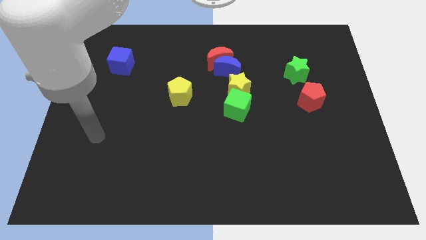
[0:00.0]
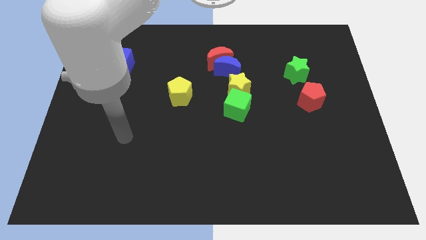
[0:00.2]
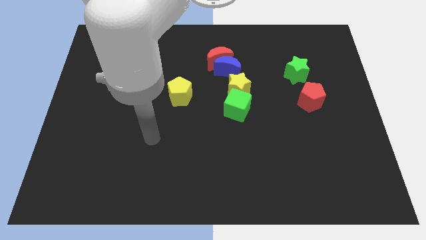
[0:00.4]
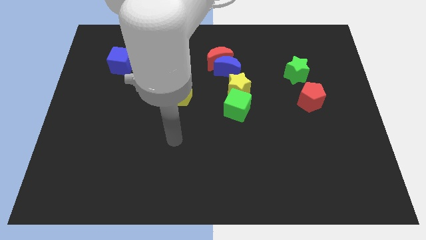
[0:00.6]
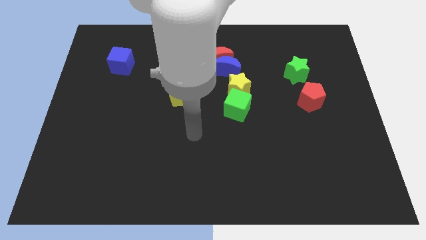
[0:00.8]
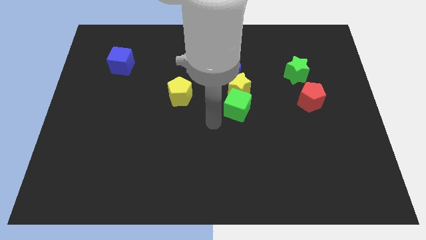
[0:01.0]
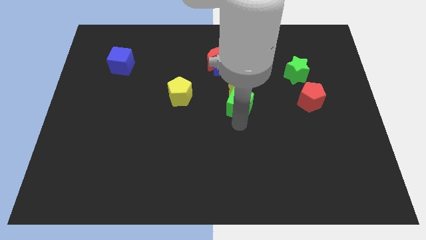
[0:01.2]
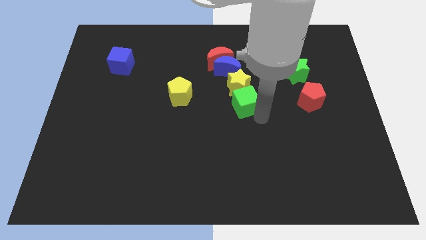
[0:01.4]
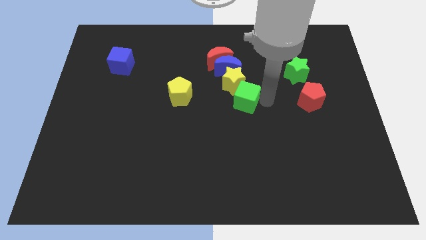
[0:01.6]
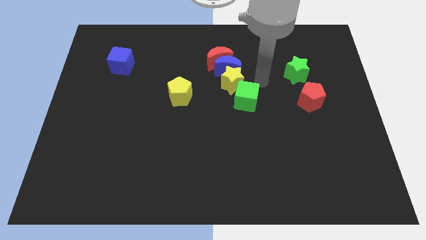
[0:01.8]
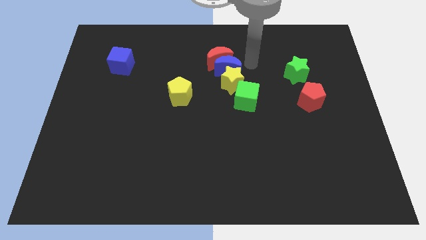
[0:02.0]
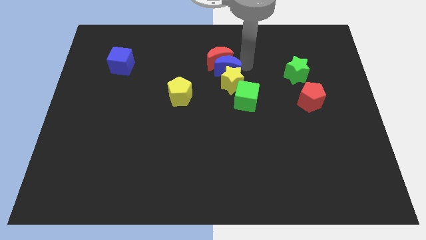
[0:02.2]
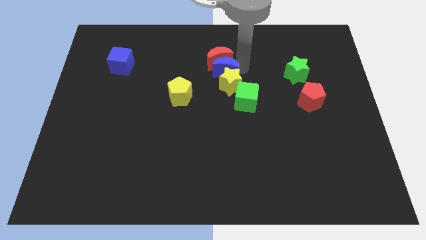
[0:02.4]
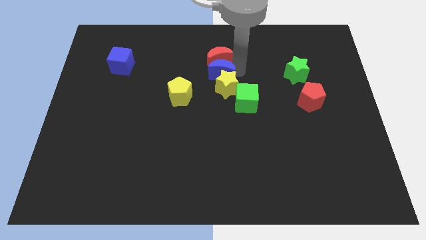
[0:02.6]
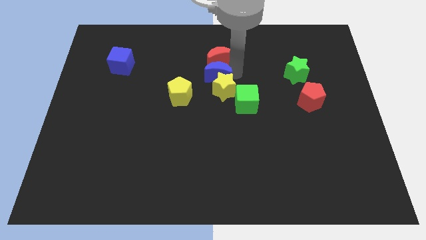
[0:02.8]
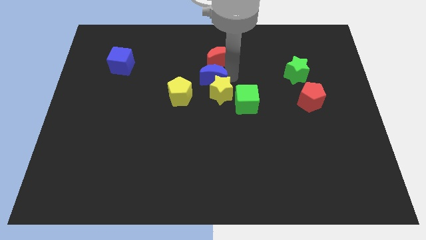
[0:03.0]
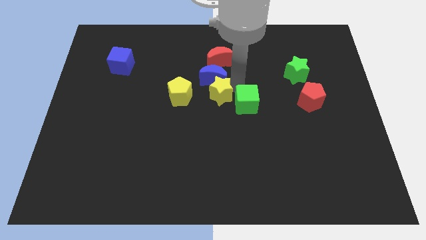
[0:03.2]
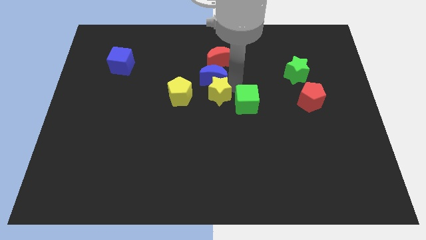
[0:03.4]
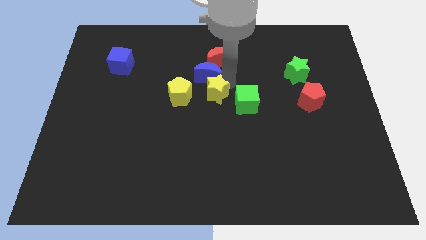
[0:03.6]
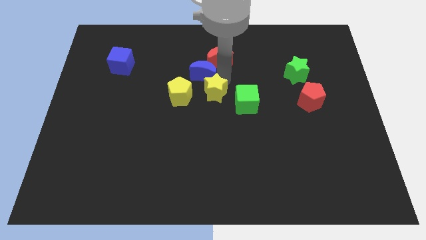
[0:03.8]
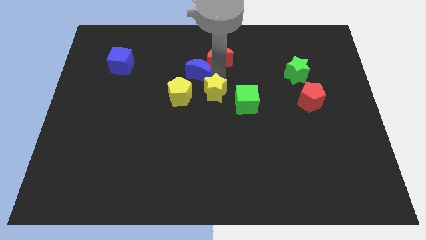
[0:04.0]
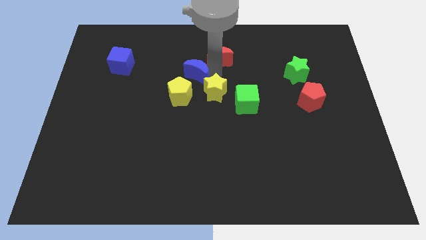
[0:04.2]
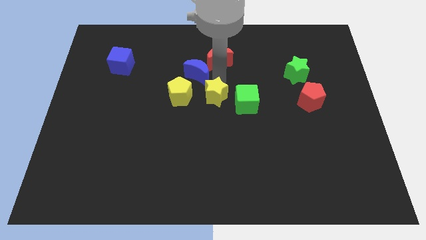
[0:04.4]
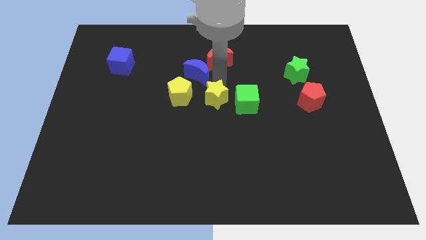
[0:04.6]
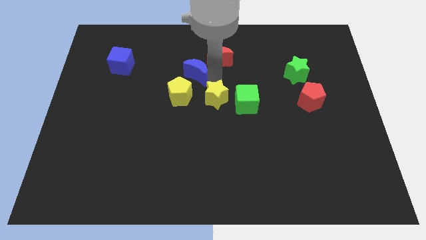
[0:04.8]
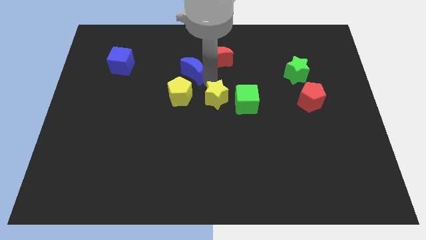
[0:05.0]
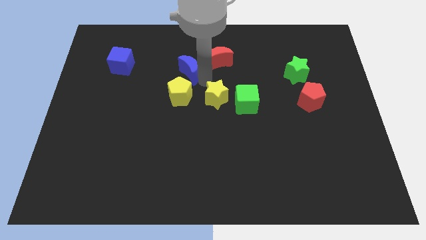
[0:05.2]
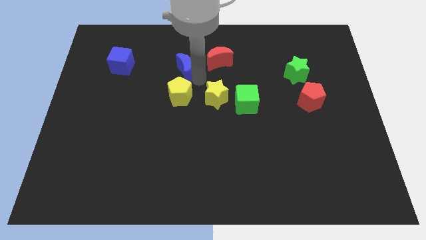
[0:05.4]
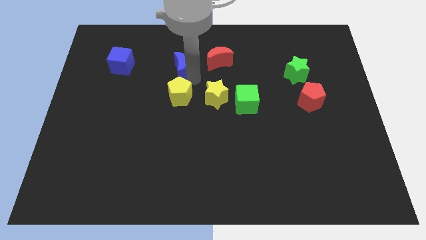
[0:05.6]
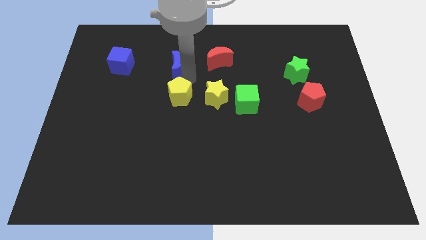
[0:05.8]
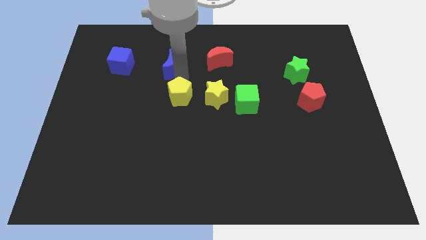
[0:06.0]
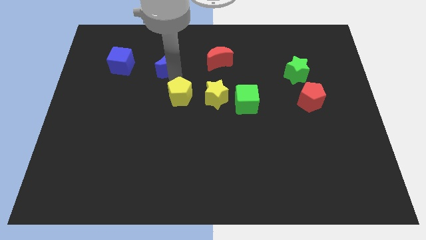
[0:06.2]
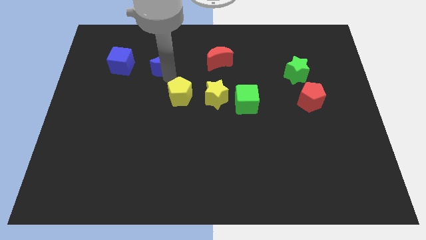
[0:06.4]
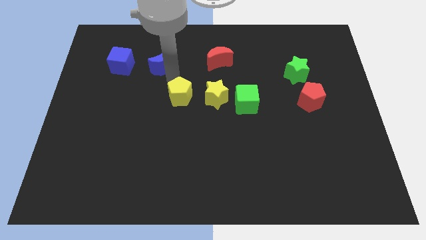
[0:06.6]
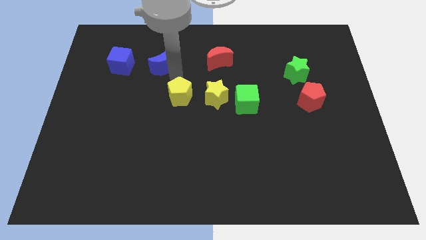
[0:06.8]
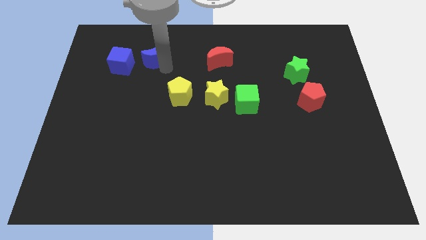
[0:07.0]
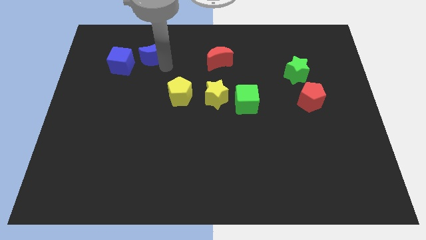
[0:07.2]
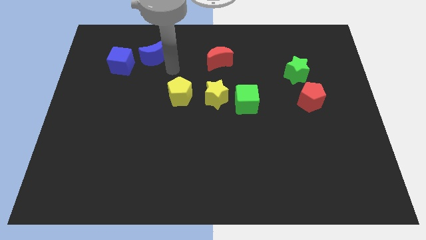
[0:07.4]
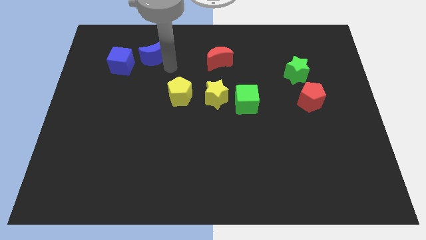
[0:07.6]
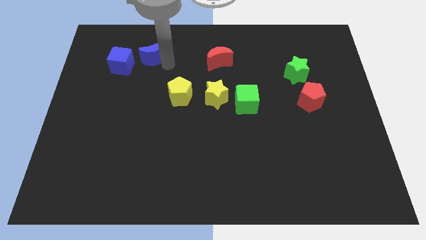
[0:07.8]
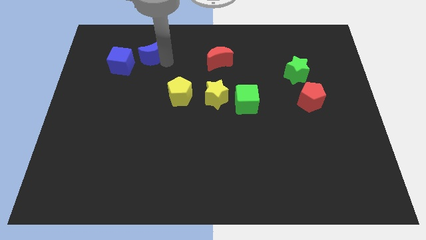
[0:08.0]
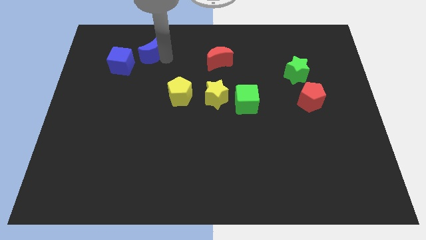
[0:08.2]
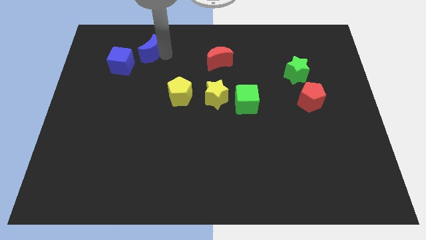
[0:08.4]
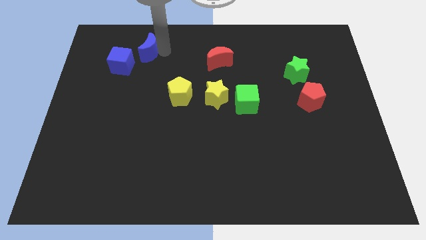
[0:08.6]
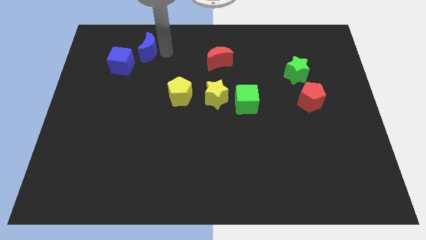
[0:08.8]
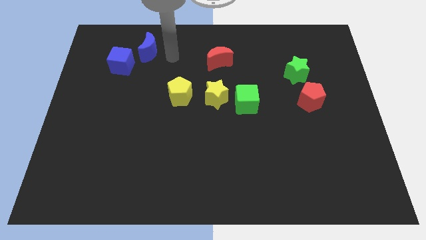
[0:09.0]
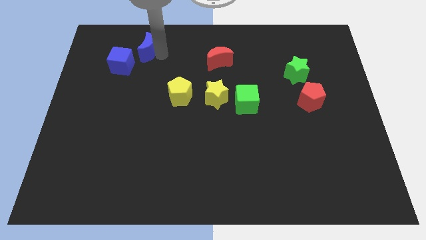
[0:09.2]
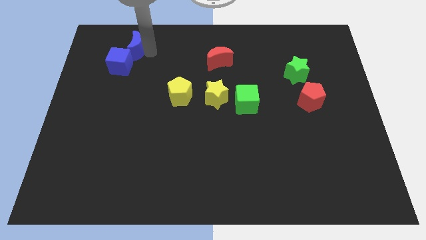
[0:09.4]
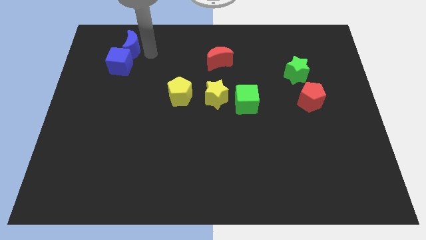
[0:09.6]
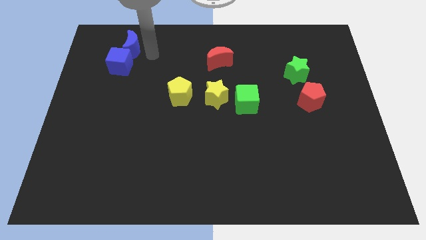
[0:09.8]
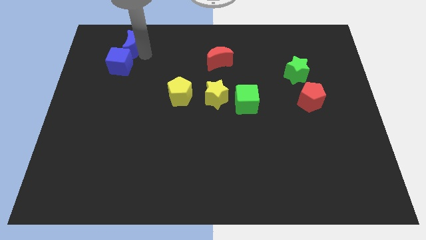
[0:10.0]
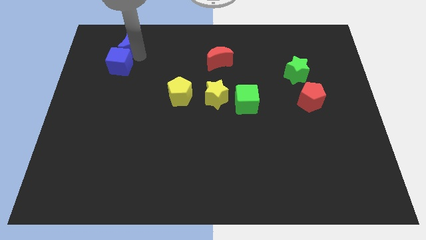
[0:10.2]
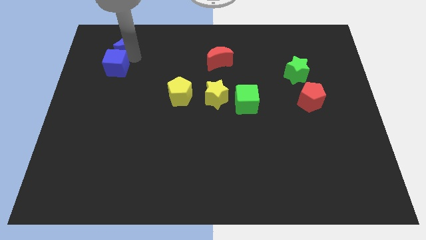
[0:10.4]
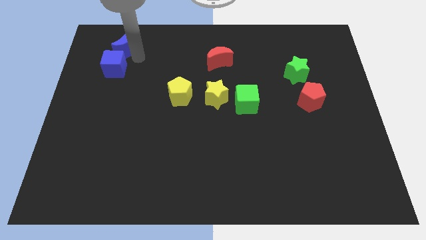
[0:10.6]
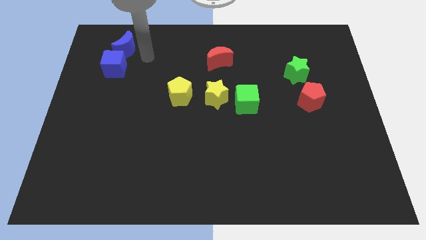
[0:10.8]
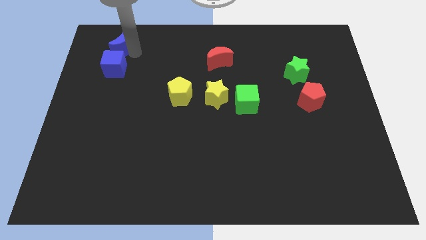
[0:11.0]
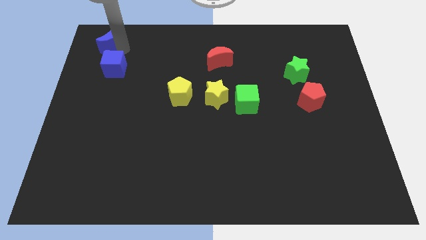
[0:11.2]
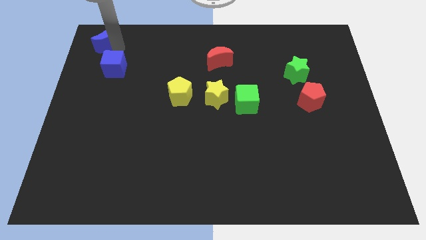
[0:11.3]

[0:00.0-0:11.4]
move the blue moon to the top left of the board

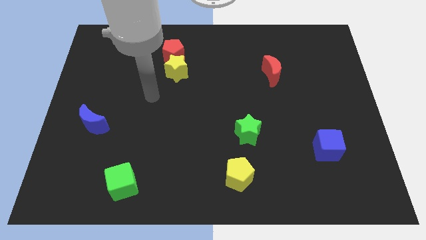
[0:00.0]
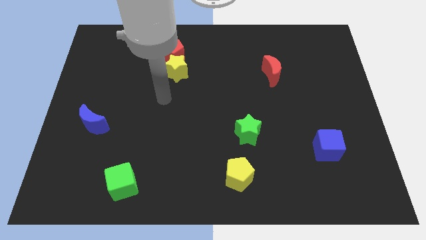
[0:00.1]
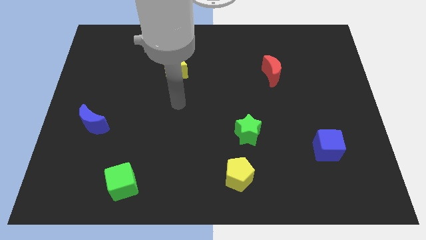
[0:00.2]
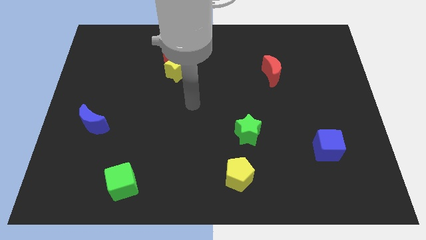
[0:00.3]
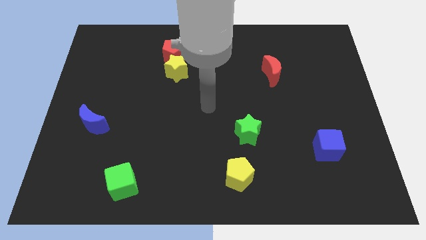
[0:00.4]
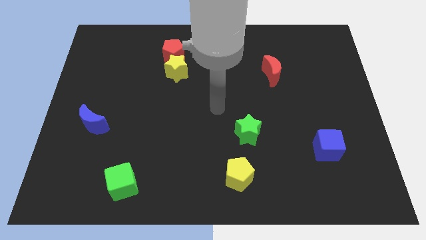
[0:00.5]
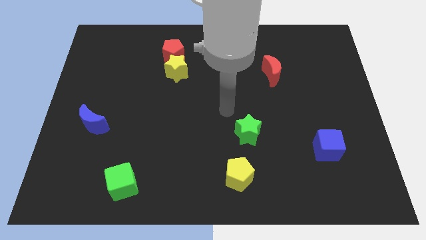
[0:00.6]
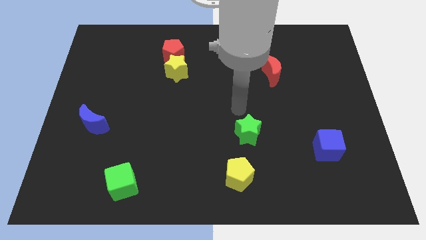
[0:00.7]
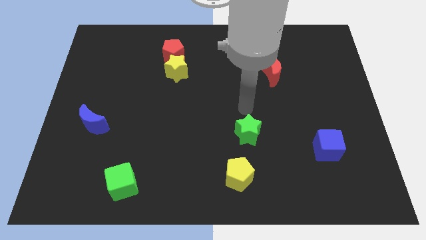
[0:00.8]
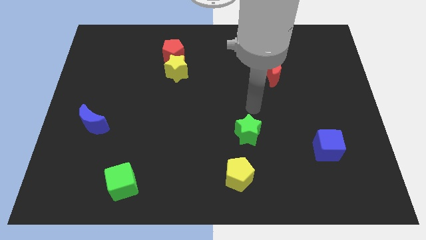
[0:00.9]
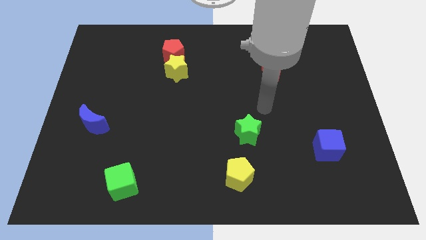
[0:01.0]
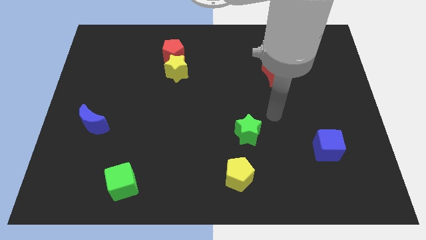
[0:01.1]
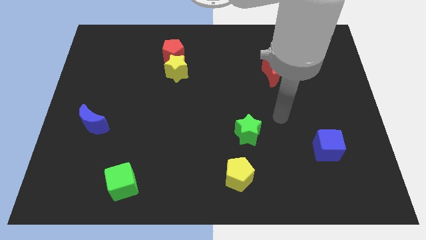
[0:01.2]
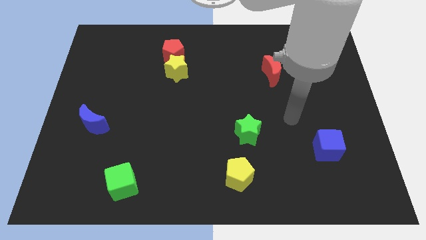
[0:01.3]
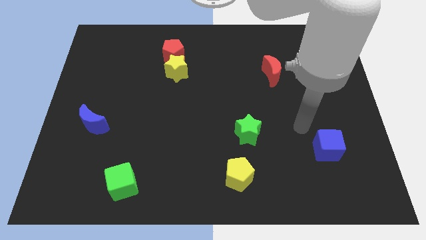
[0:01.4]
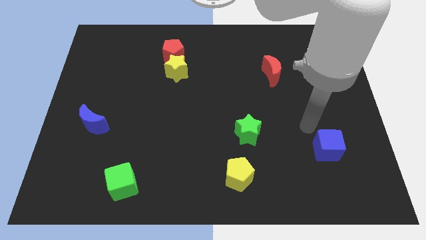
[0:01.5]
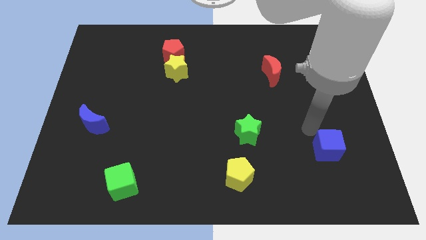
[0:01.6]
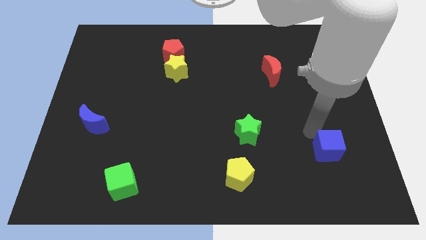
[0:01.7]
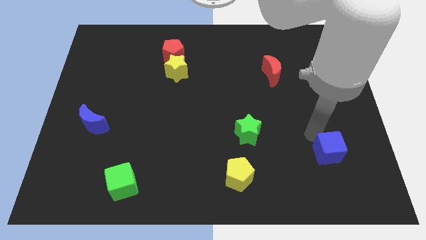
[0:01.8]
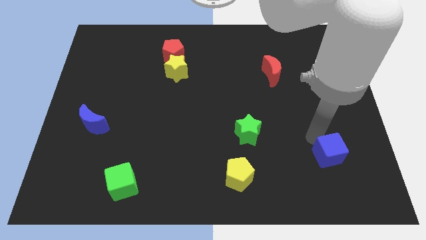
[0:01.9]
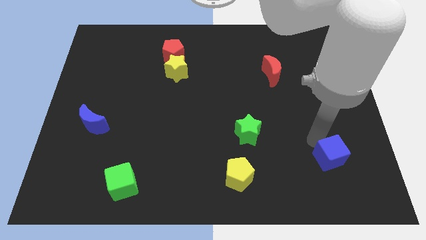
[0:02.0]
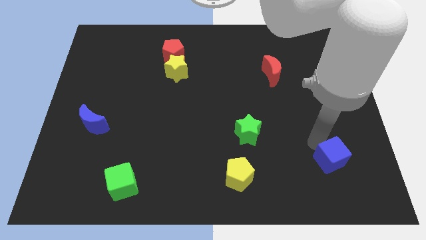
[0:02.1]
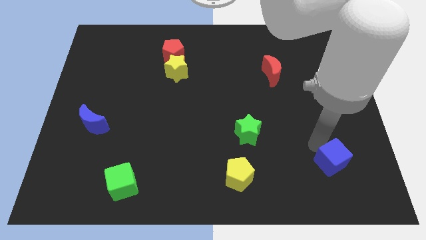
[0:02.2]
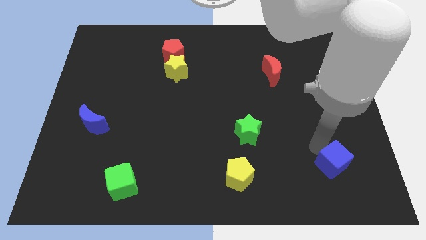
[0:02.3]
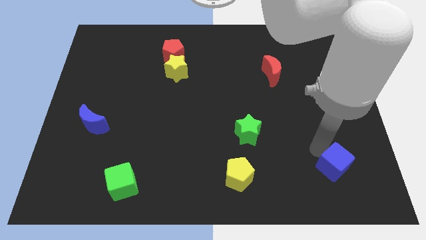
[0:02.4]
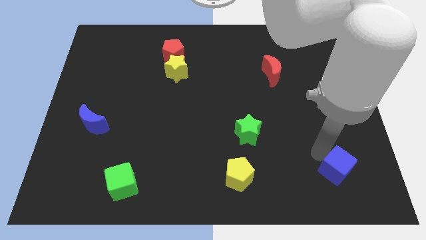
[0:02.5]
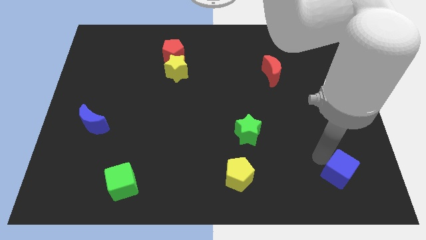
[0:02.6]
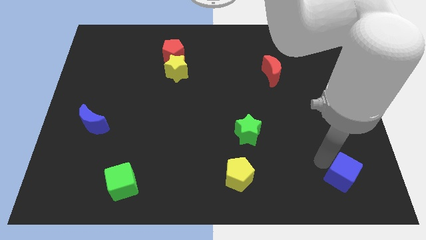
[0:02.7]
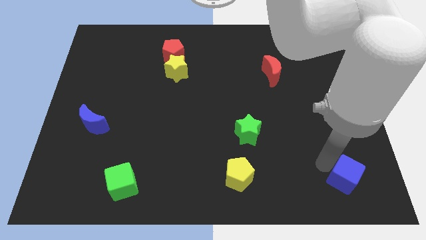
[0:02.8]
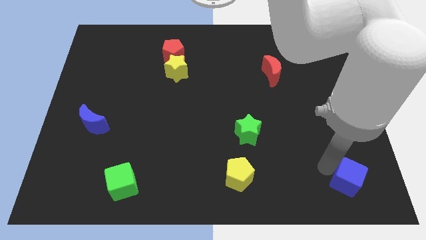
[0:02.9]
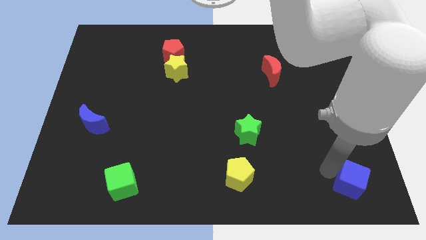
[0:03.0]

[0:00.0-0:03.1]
move the blue cube to the bottom right corner
